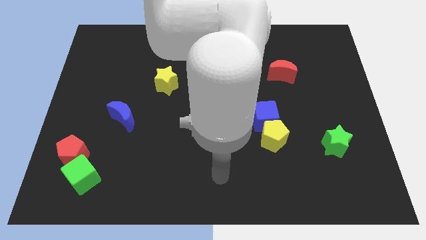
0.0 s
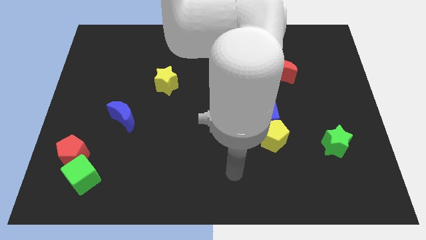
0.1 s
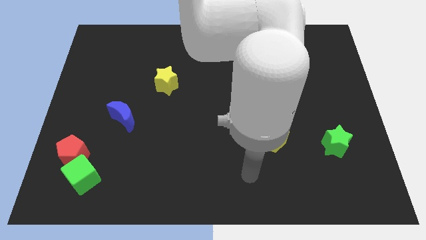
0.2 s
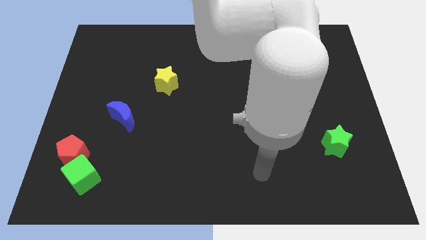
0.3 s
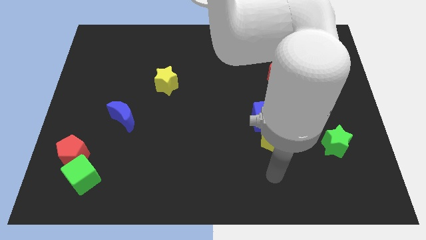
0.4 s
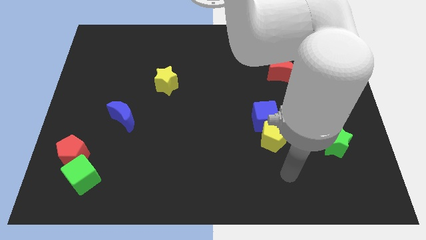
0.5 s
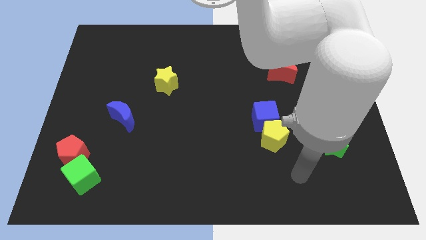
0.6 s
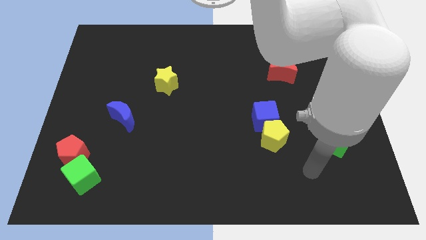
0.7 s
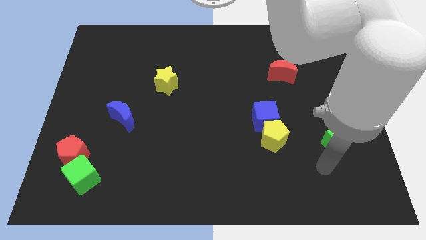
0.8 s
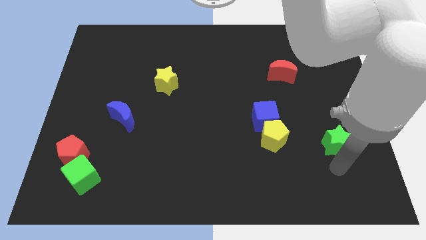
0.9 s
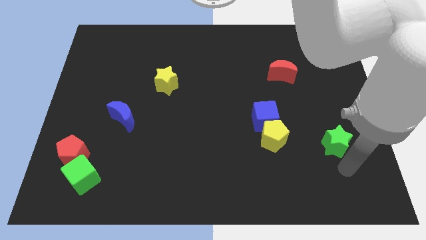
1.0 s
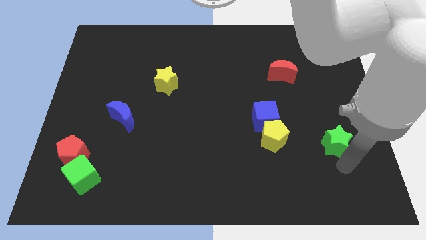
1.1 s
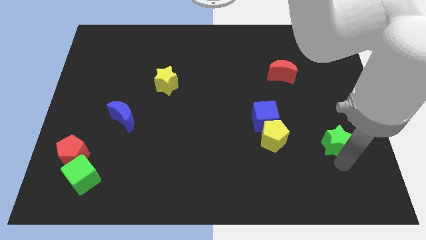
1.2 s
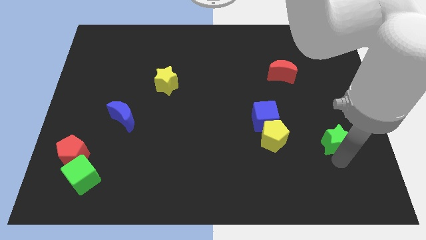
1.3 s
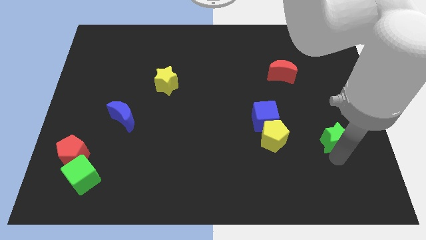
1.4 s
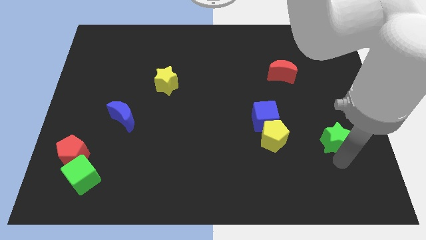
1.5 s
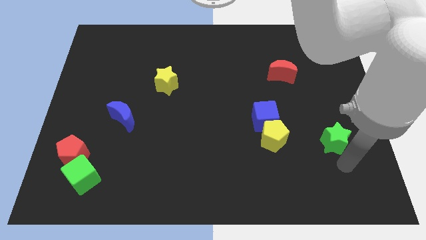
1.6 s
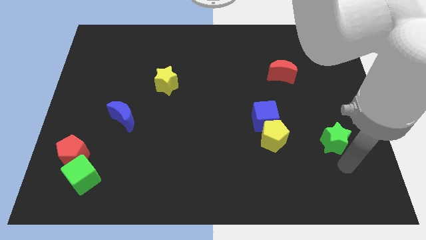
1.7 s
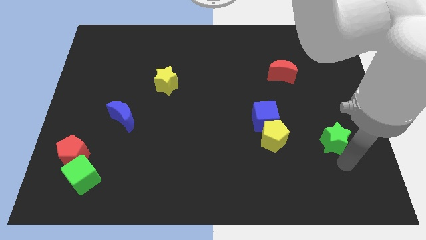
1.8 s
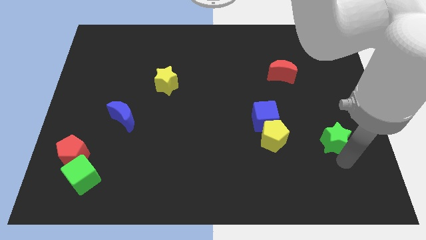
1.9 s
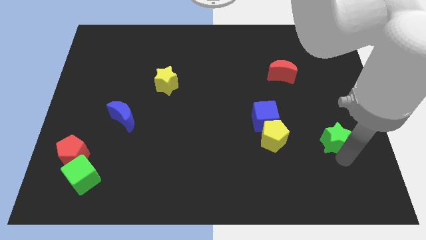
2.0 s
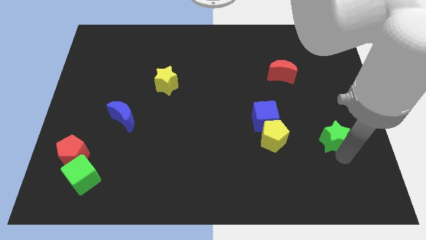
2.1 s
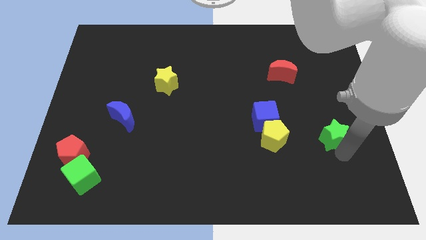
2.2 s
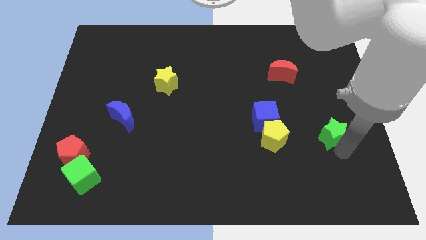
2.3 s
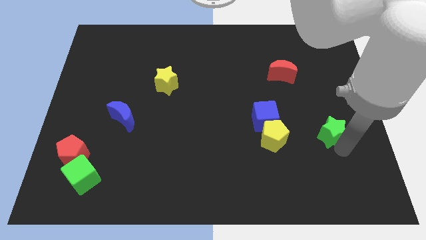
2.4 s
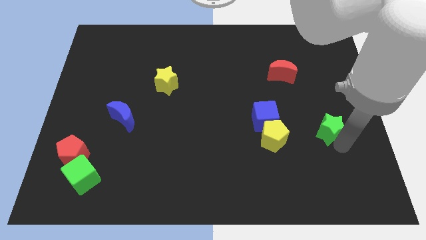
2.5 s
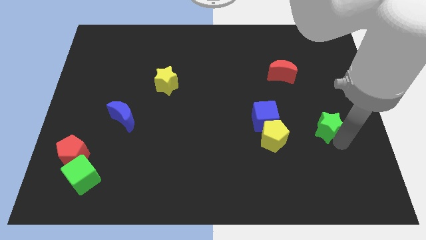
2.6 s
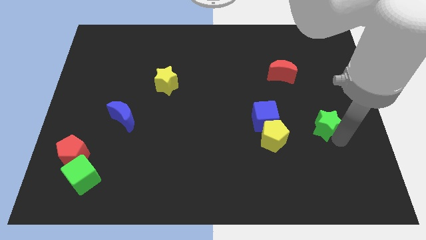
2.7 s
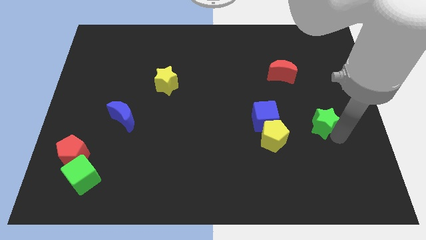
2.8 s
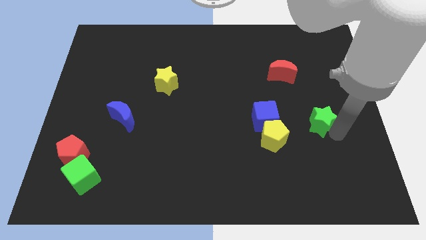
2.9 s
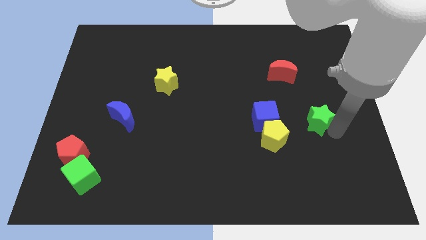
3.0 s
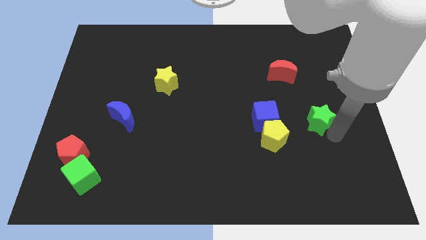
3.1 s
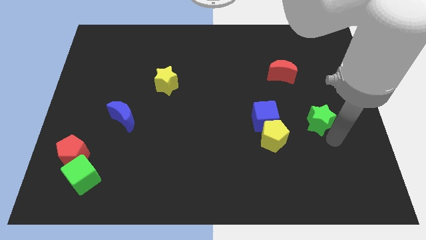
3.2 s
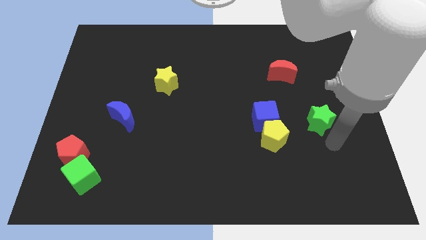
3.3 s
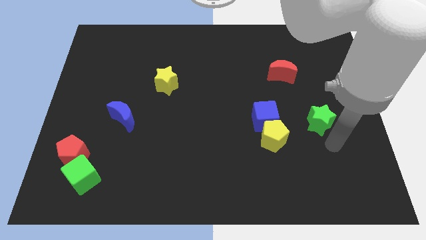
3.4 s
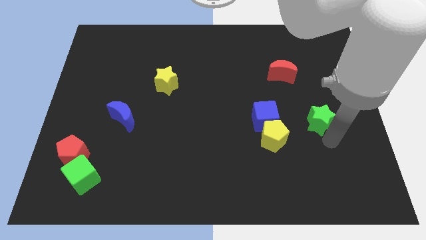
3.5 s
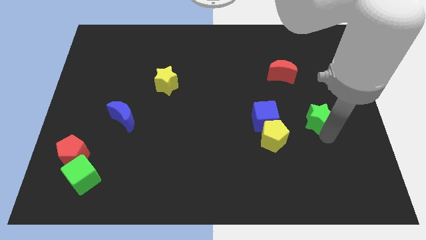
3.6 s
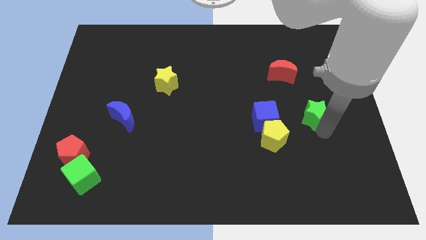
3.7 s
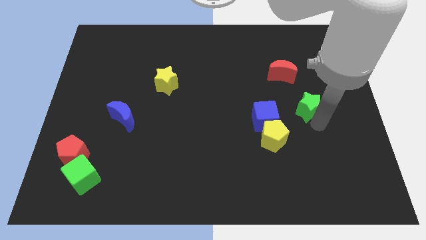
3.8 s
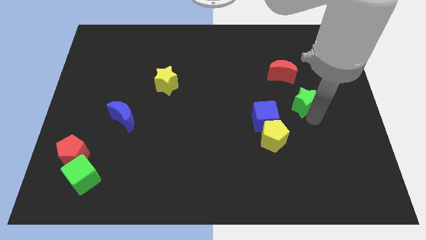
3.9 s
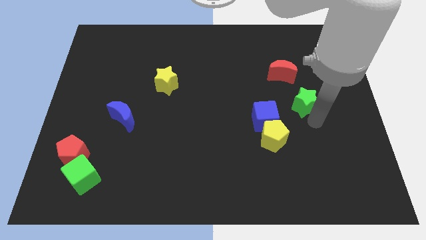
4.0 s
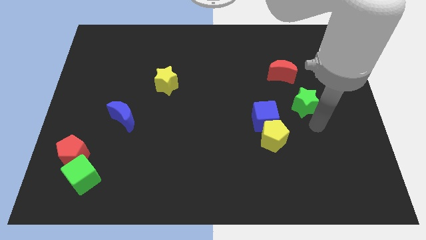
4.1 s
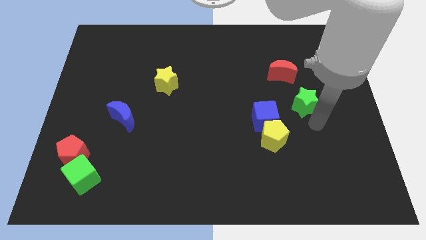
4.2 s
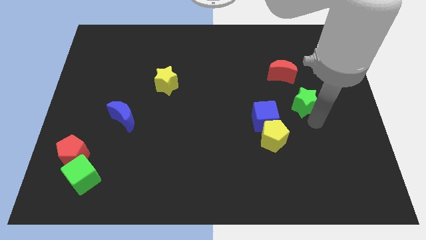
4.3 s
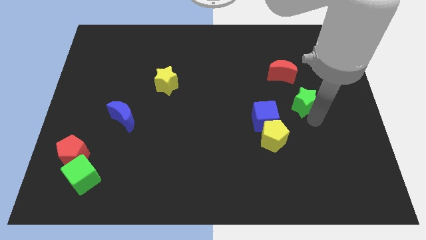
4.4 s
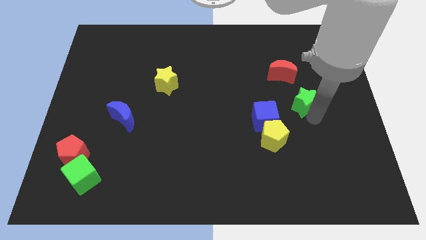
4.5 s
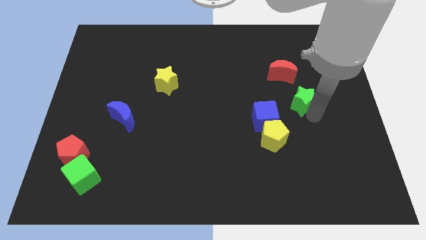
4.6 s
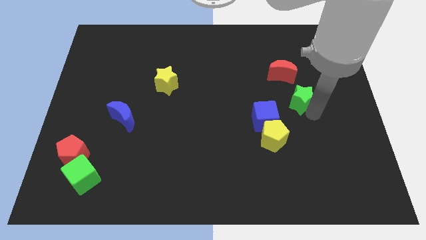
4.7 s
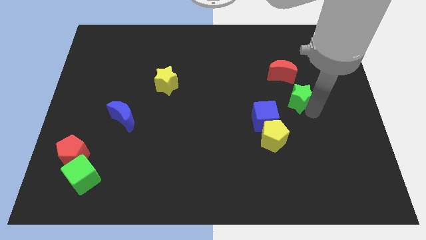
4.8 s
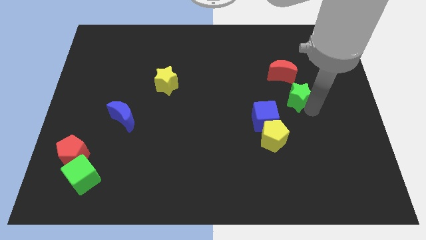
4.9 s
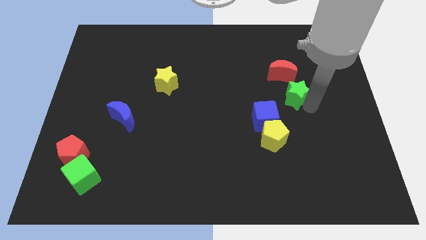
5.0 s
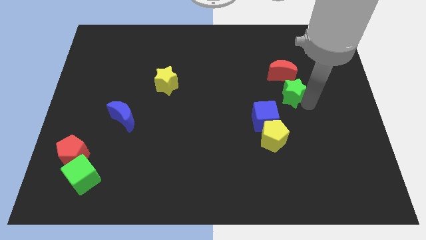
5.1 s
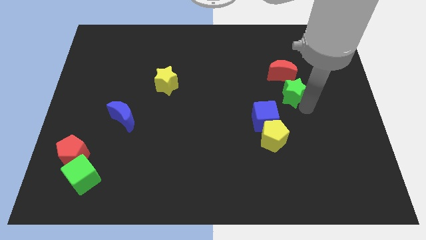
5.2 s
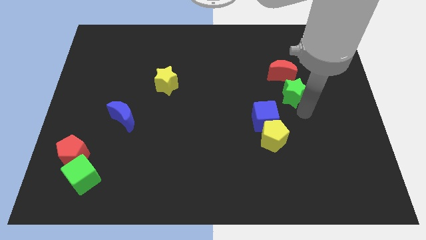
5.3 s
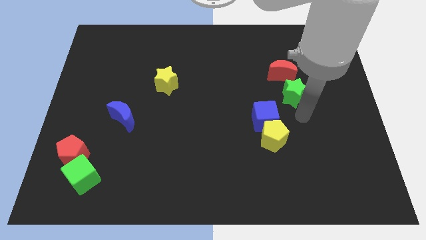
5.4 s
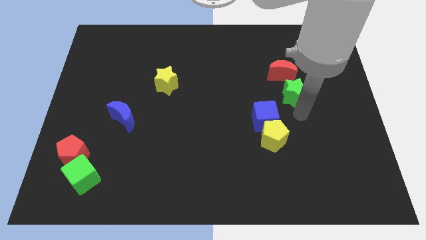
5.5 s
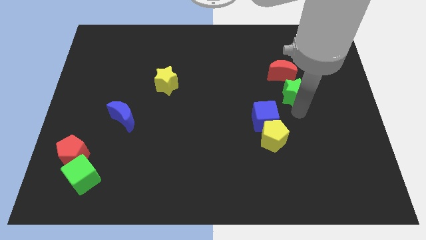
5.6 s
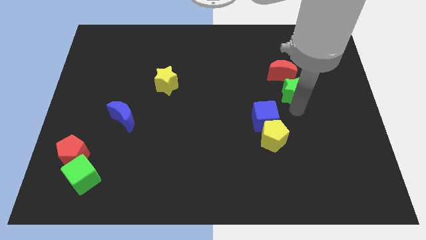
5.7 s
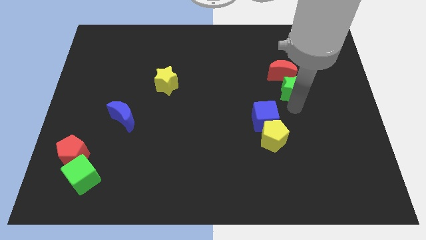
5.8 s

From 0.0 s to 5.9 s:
put the green star next to the red moon
